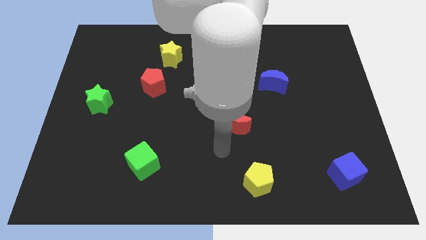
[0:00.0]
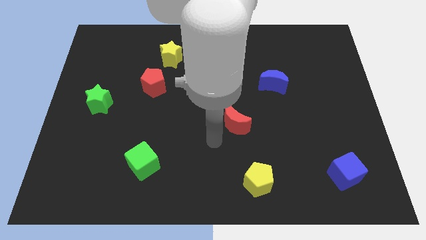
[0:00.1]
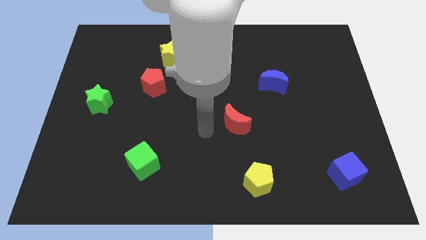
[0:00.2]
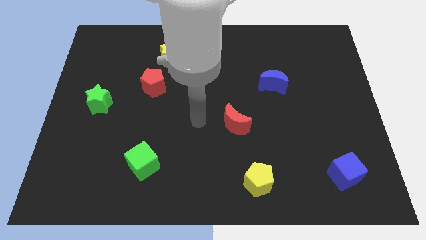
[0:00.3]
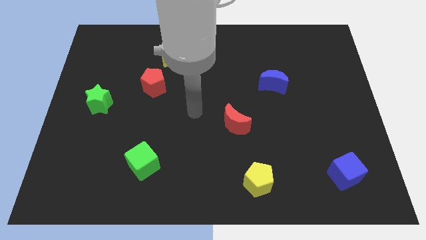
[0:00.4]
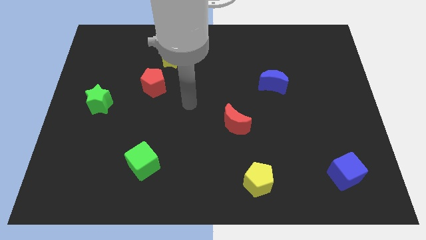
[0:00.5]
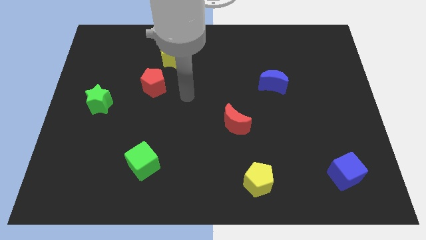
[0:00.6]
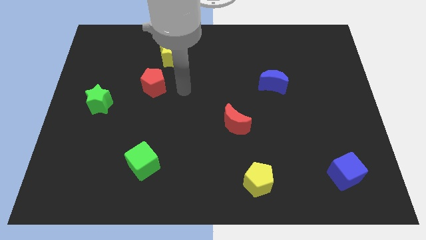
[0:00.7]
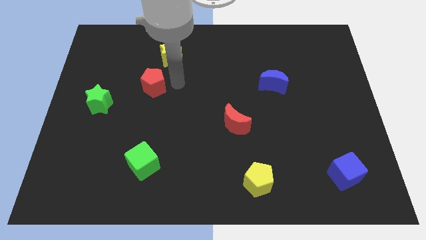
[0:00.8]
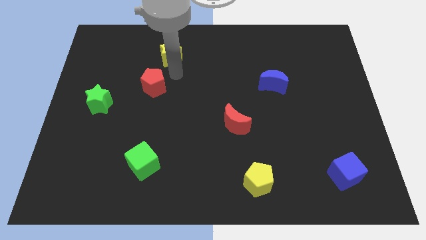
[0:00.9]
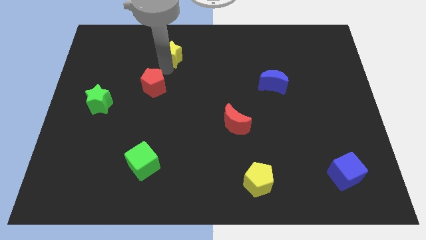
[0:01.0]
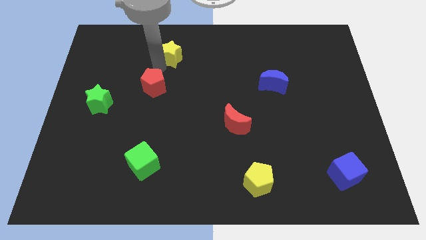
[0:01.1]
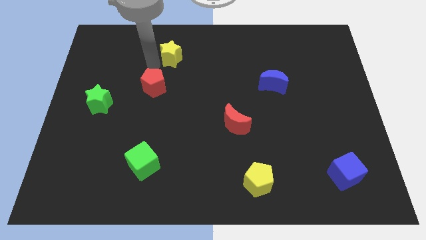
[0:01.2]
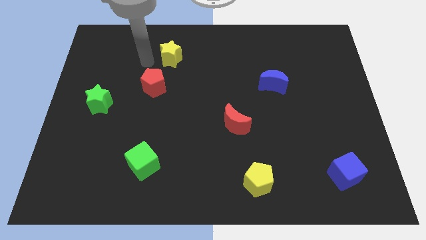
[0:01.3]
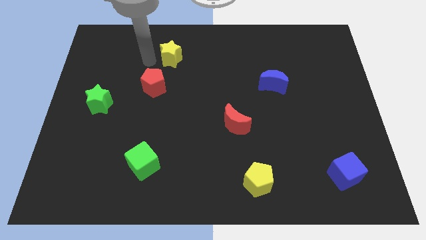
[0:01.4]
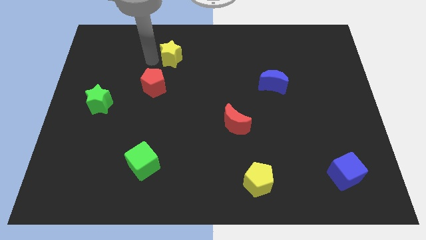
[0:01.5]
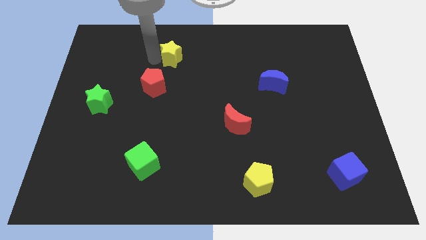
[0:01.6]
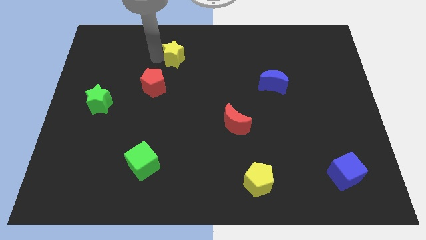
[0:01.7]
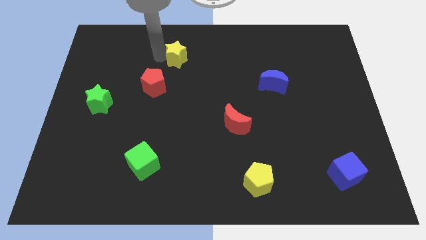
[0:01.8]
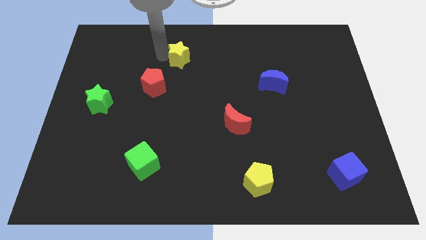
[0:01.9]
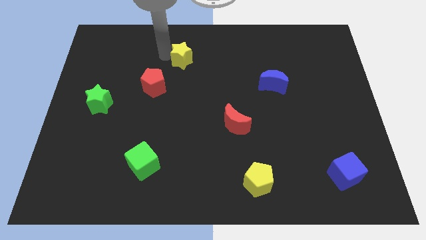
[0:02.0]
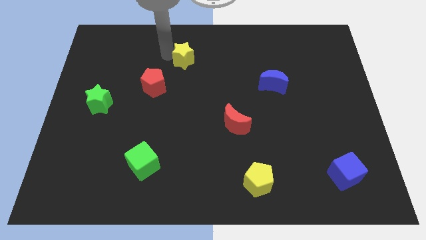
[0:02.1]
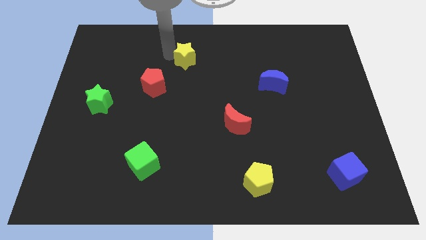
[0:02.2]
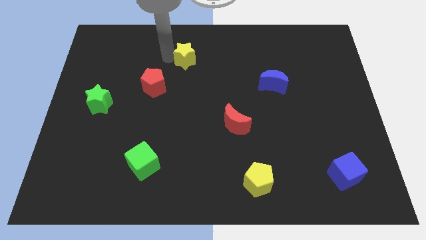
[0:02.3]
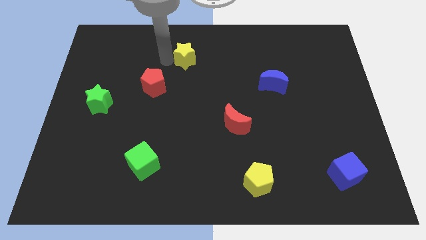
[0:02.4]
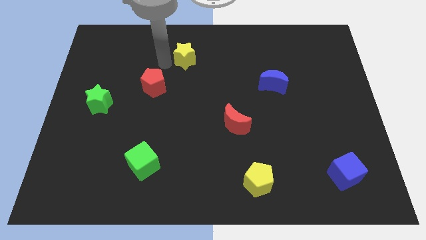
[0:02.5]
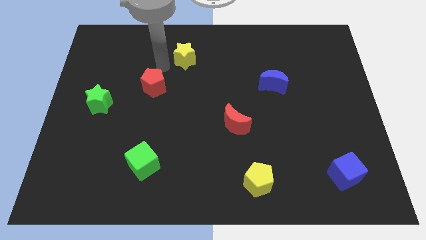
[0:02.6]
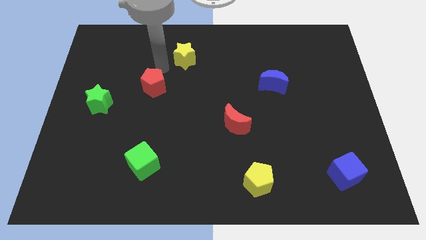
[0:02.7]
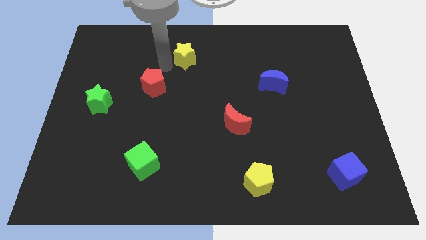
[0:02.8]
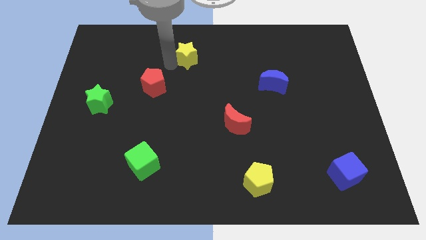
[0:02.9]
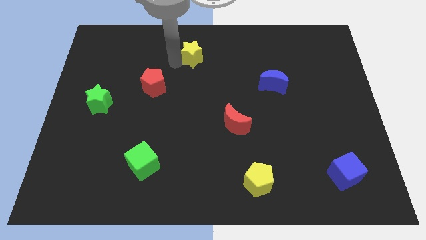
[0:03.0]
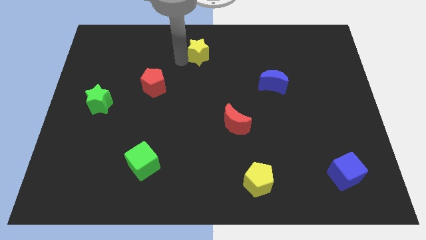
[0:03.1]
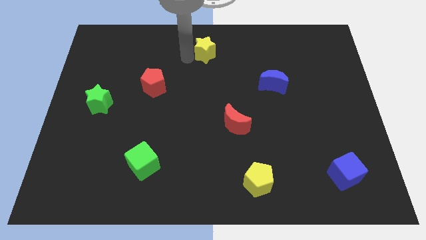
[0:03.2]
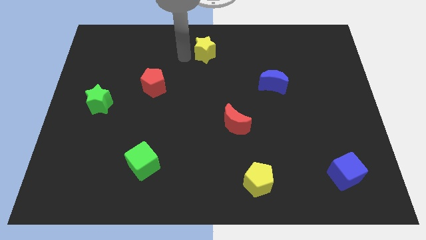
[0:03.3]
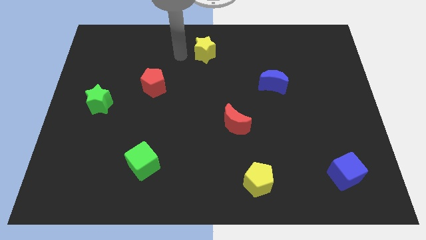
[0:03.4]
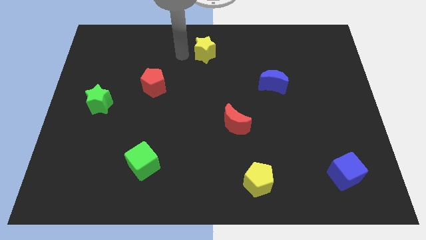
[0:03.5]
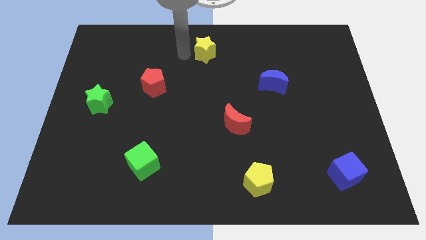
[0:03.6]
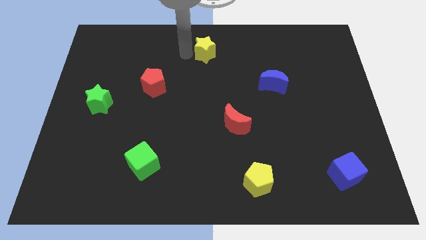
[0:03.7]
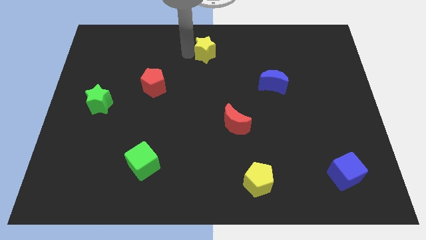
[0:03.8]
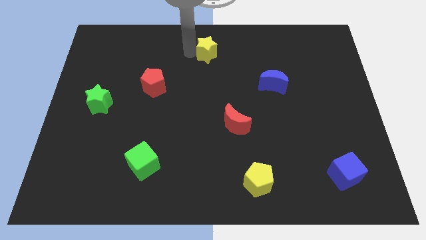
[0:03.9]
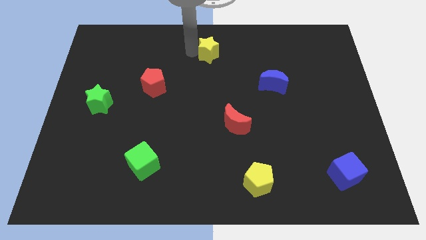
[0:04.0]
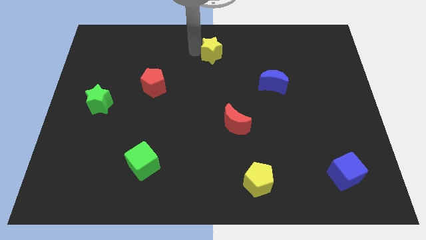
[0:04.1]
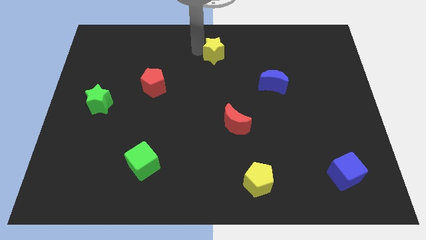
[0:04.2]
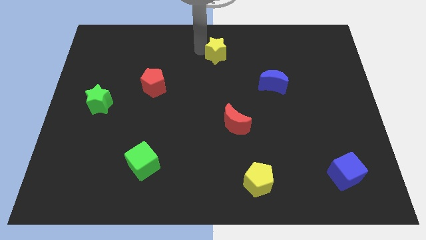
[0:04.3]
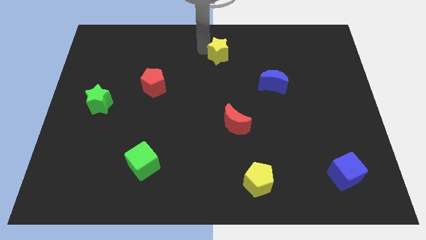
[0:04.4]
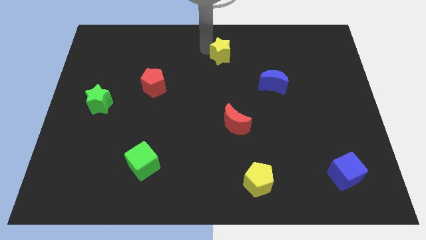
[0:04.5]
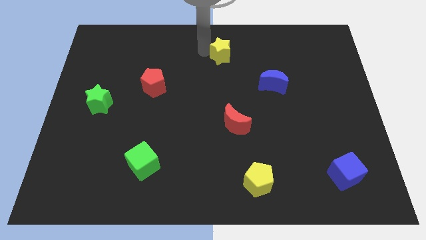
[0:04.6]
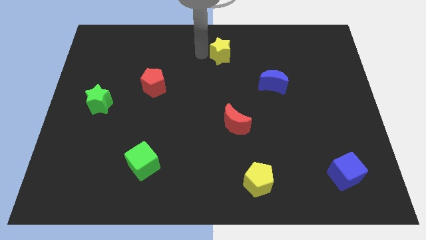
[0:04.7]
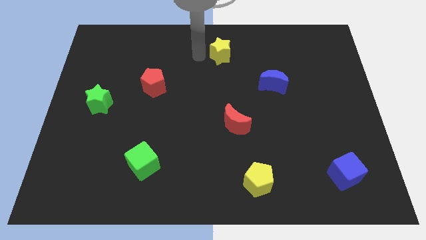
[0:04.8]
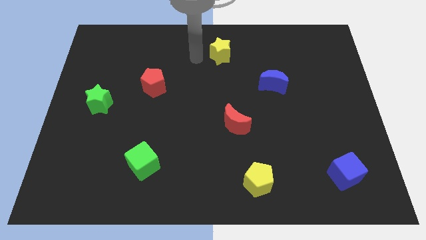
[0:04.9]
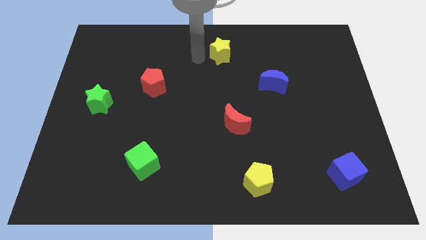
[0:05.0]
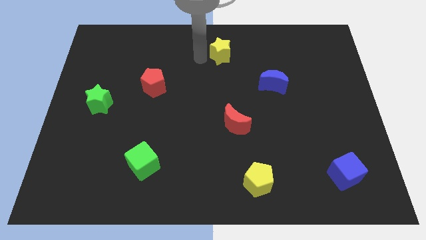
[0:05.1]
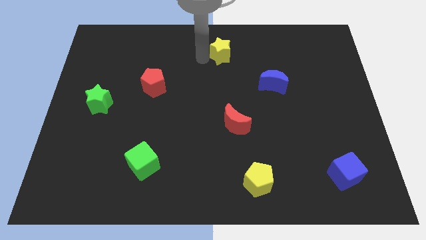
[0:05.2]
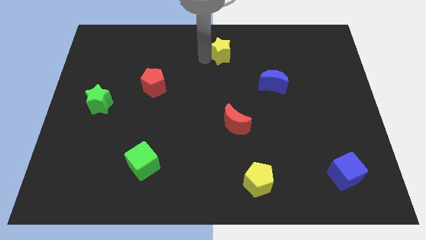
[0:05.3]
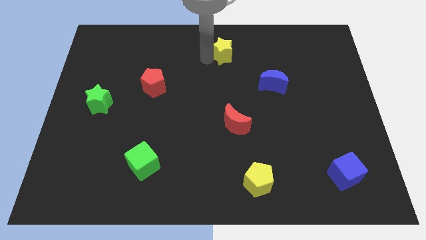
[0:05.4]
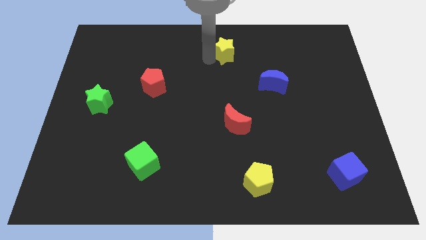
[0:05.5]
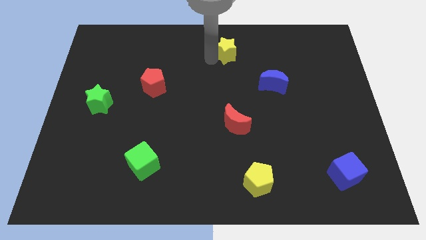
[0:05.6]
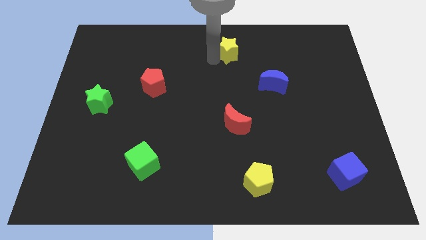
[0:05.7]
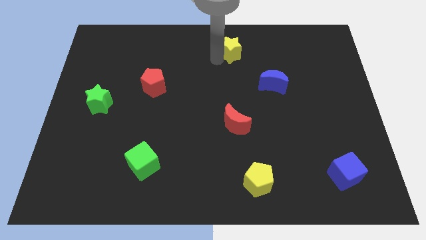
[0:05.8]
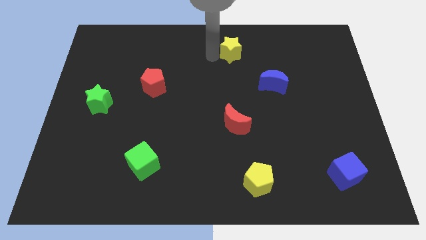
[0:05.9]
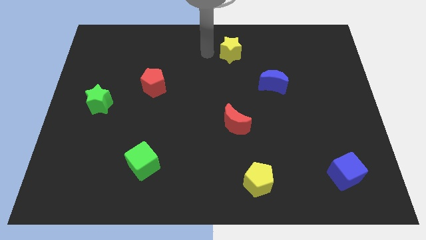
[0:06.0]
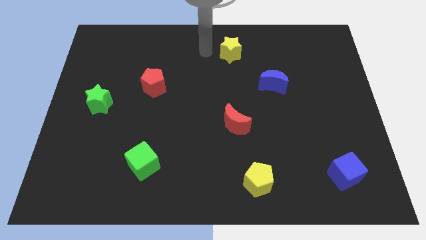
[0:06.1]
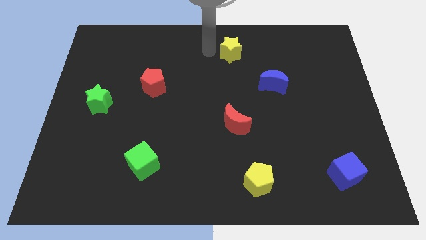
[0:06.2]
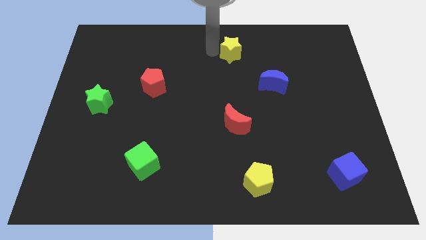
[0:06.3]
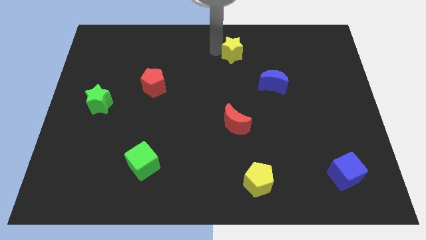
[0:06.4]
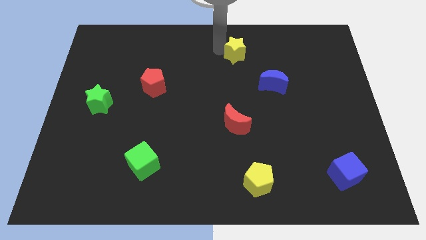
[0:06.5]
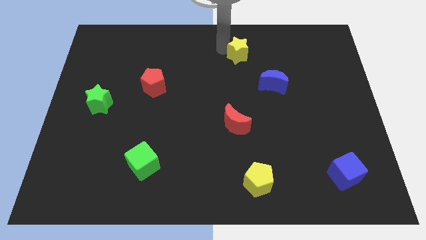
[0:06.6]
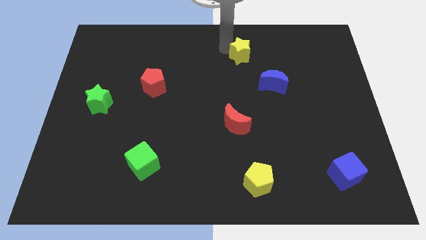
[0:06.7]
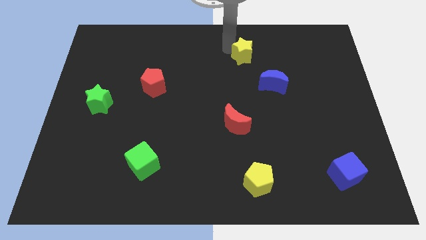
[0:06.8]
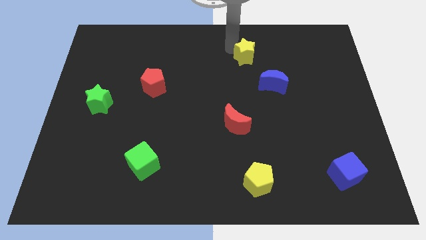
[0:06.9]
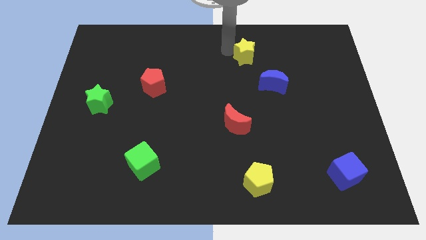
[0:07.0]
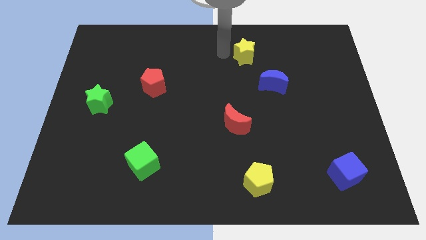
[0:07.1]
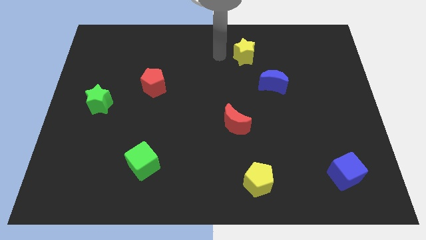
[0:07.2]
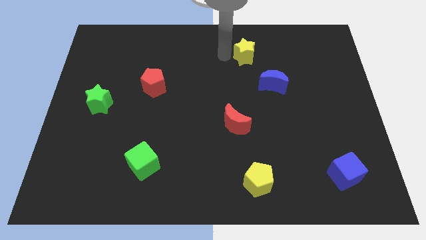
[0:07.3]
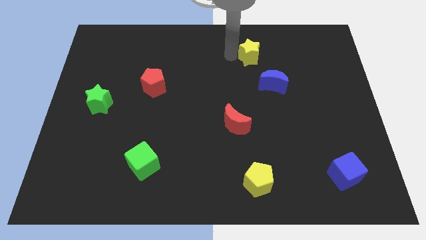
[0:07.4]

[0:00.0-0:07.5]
push the yellow star right

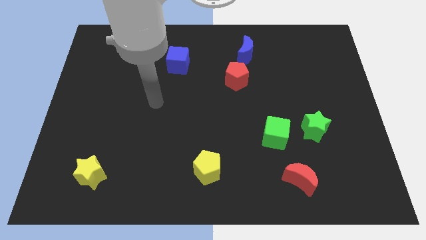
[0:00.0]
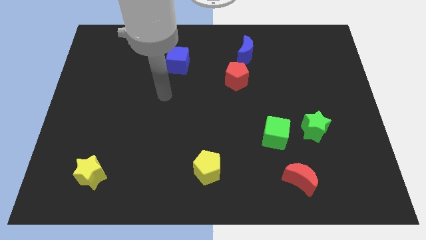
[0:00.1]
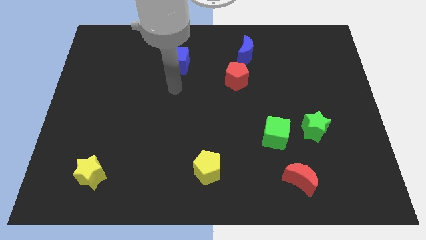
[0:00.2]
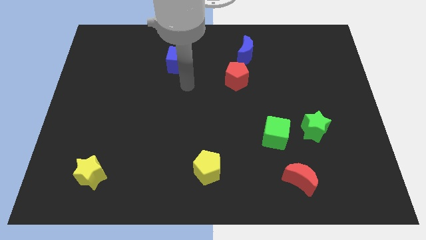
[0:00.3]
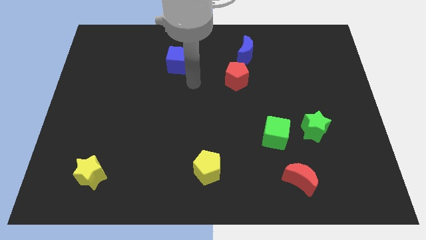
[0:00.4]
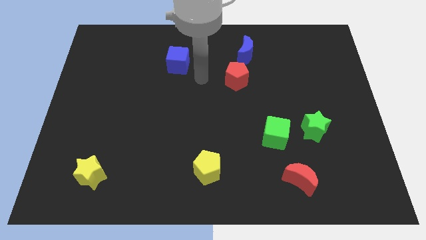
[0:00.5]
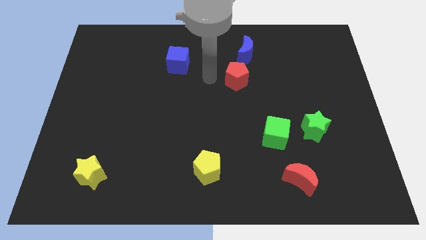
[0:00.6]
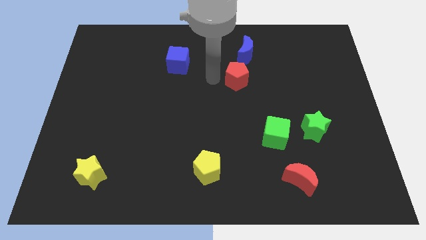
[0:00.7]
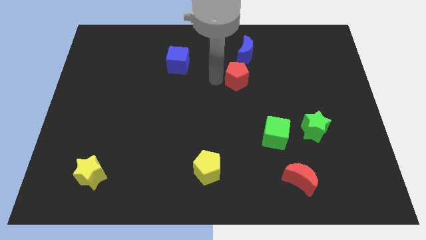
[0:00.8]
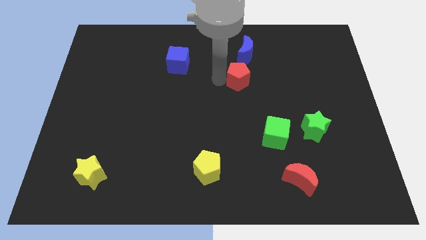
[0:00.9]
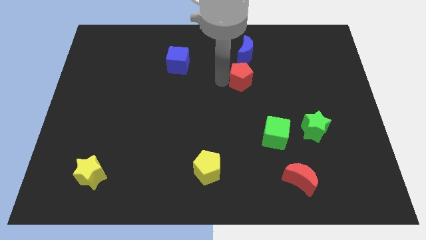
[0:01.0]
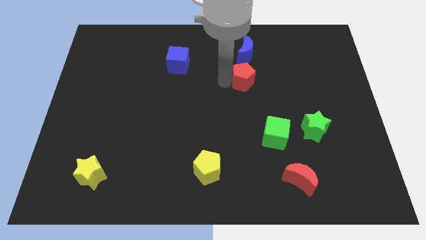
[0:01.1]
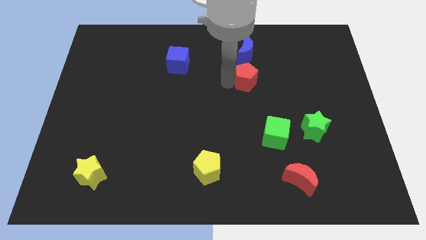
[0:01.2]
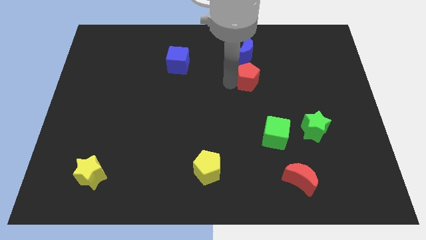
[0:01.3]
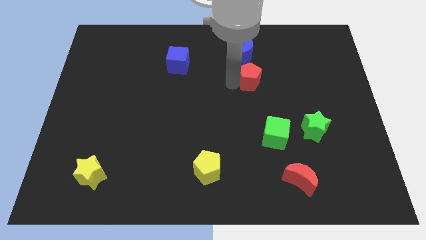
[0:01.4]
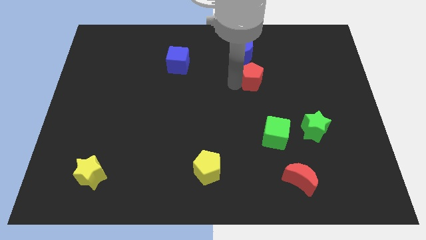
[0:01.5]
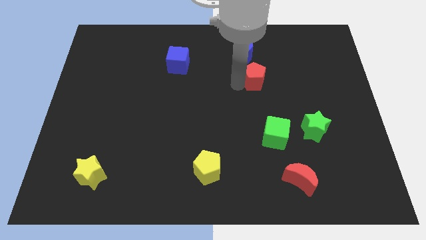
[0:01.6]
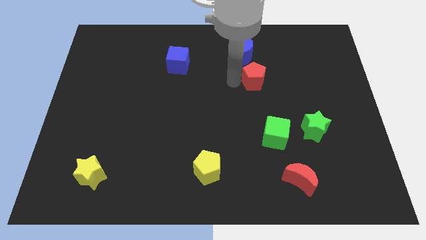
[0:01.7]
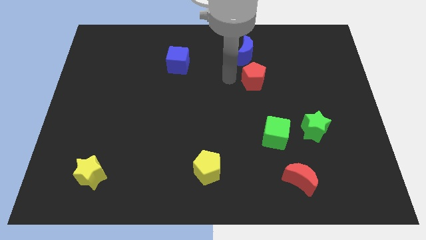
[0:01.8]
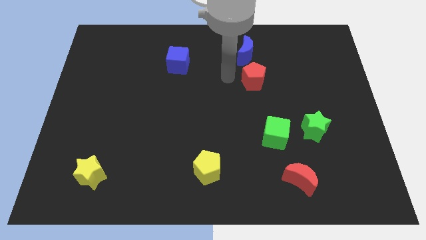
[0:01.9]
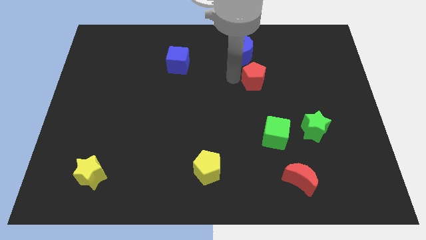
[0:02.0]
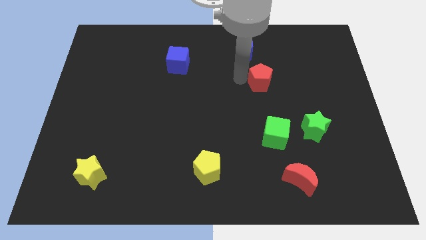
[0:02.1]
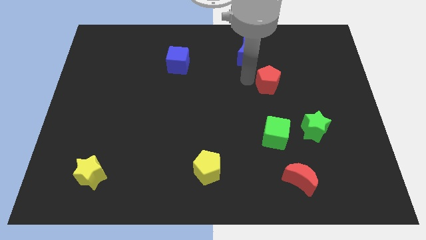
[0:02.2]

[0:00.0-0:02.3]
move the red pentagon to the right slightly
